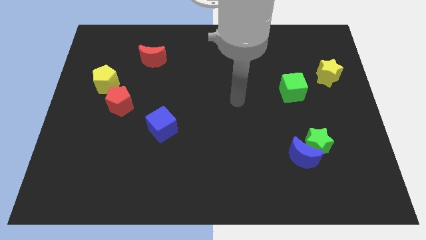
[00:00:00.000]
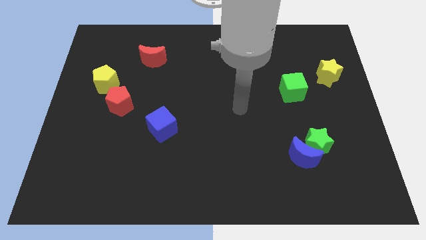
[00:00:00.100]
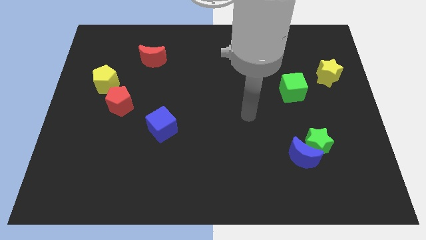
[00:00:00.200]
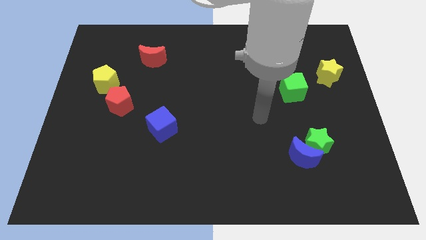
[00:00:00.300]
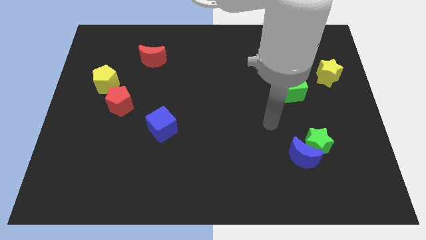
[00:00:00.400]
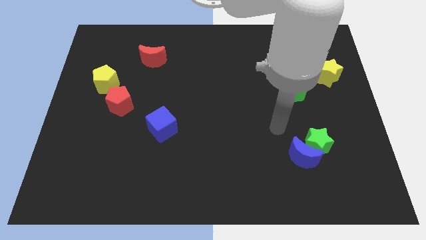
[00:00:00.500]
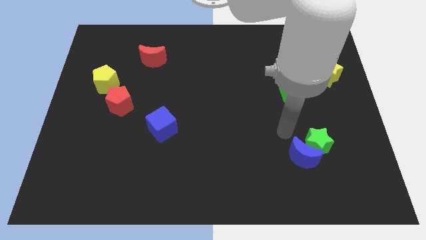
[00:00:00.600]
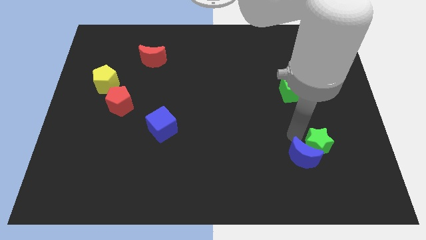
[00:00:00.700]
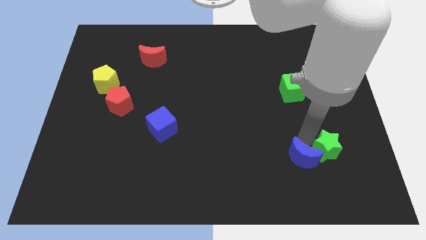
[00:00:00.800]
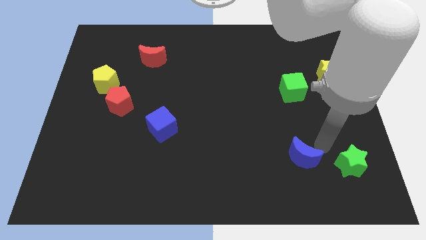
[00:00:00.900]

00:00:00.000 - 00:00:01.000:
pull the blue moon apart from the green star

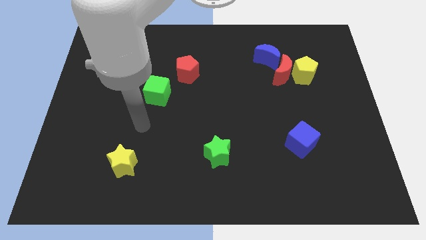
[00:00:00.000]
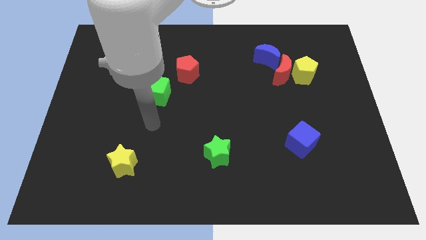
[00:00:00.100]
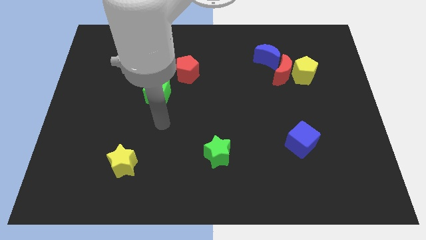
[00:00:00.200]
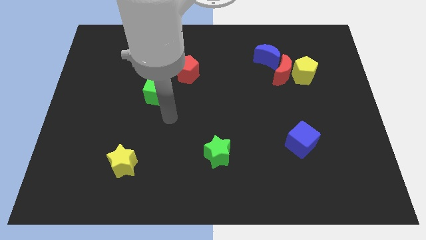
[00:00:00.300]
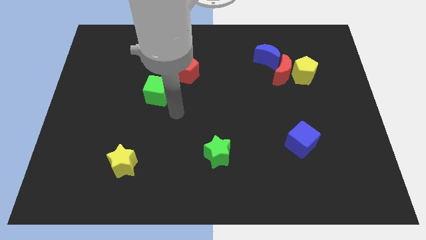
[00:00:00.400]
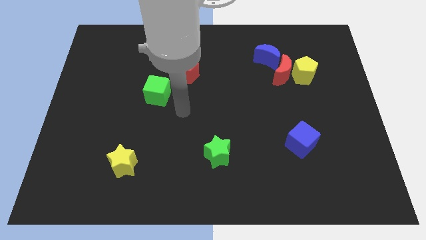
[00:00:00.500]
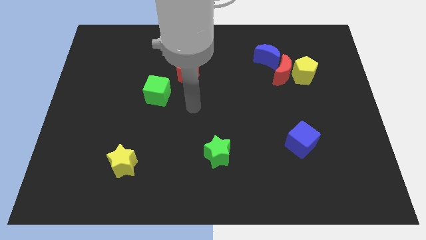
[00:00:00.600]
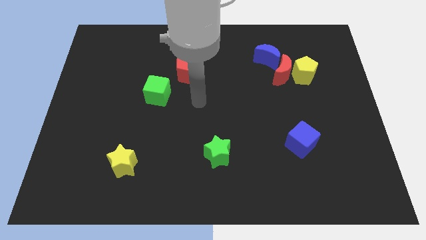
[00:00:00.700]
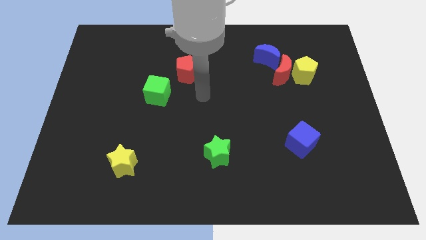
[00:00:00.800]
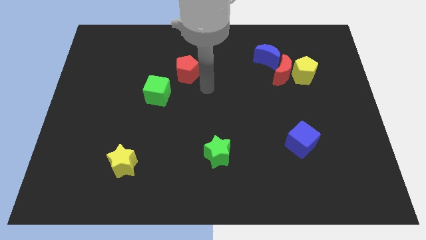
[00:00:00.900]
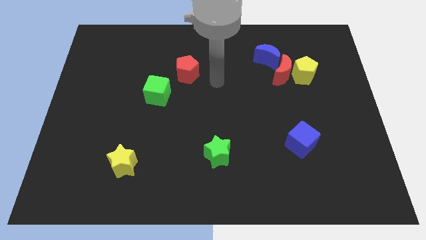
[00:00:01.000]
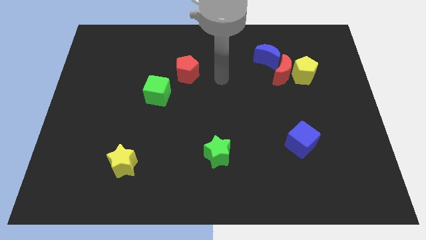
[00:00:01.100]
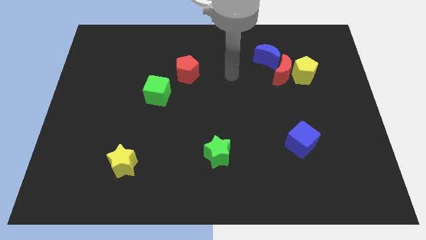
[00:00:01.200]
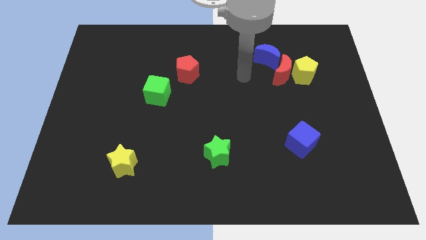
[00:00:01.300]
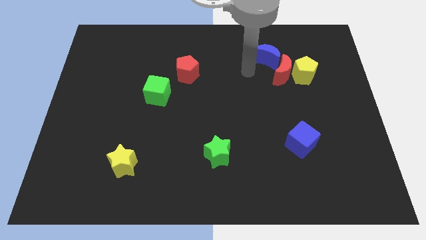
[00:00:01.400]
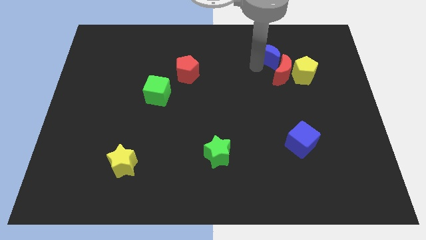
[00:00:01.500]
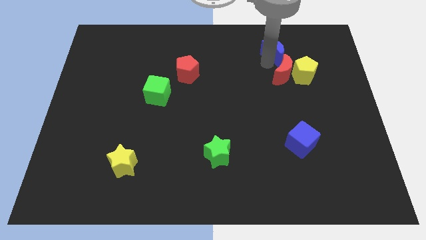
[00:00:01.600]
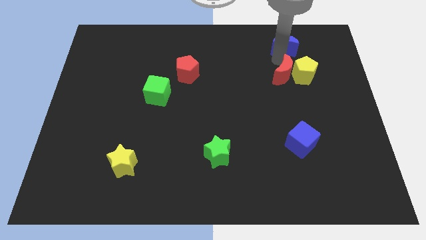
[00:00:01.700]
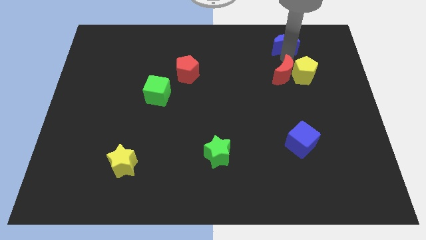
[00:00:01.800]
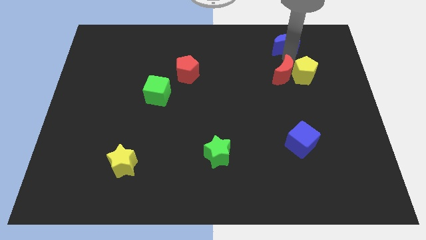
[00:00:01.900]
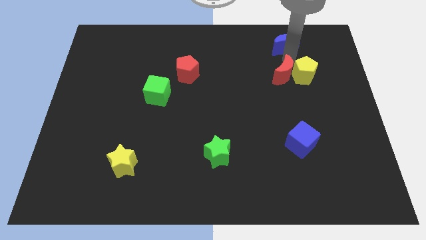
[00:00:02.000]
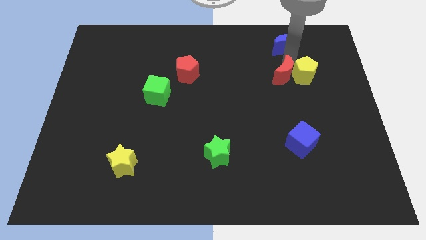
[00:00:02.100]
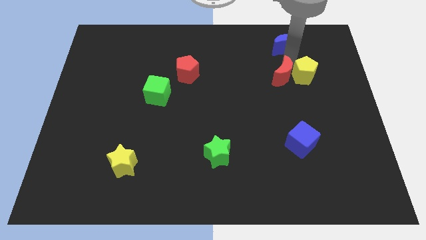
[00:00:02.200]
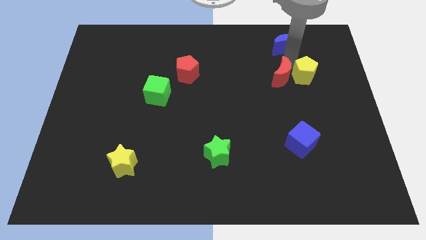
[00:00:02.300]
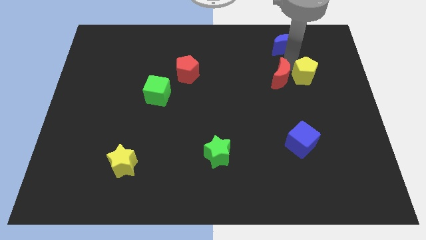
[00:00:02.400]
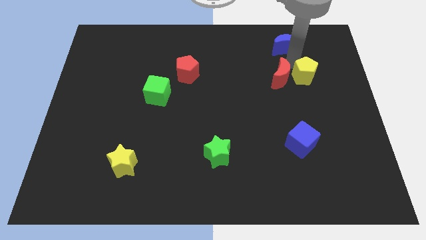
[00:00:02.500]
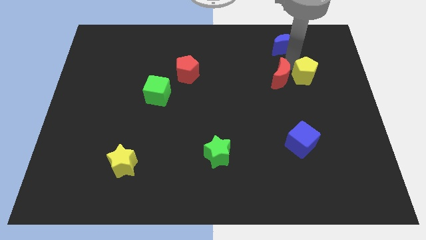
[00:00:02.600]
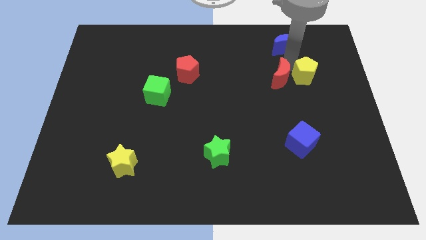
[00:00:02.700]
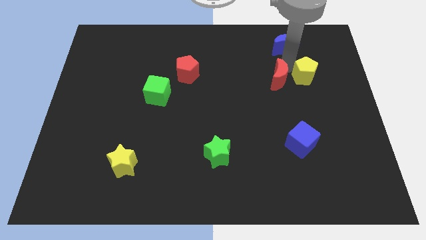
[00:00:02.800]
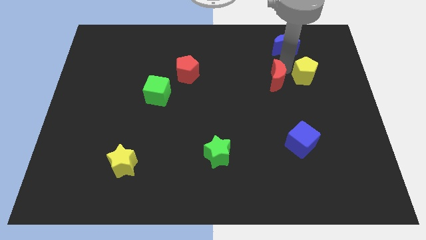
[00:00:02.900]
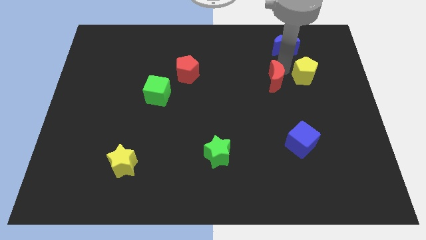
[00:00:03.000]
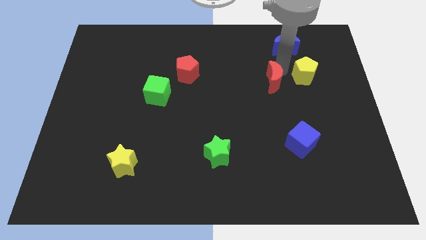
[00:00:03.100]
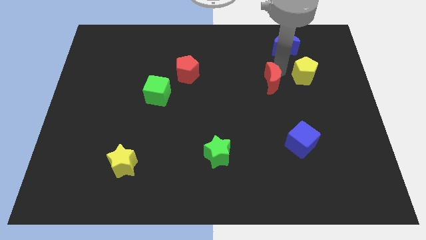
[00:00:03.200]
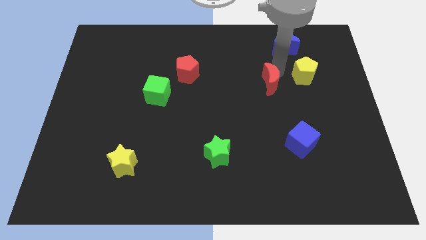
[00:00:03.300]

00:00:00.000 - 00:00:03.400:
separate the red moon from the yellow pentagon and blue moon

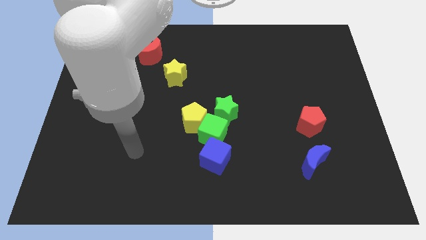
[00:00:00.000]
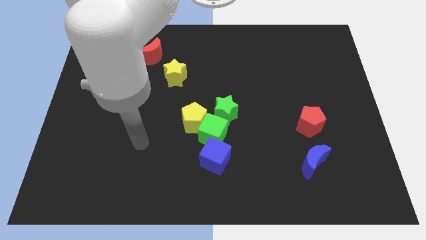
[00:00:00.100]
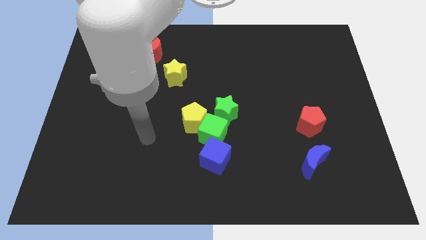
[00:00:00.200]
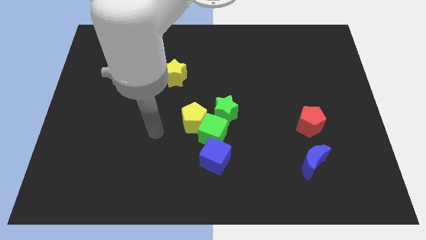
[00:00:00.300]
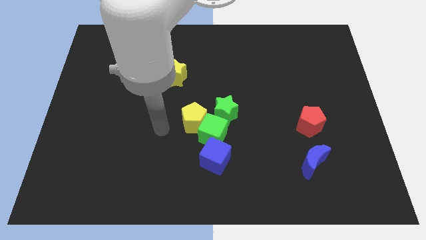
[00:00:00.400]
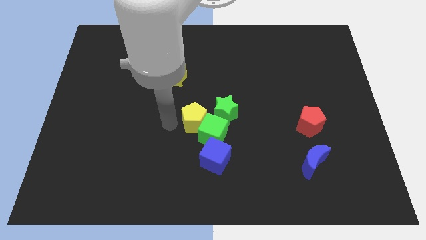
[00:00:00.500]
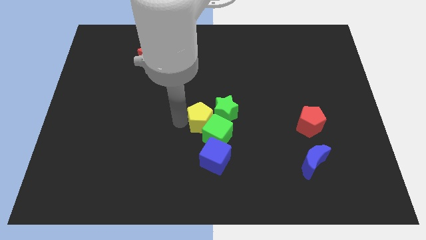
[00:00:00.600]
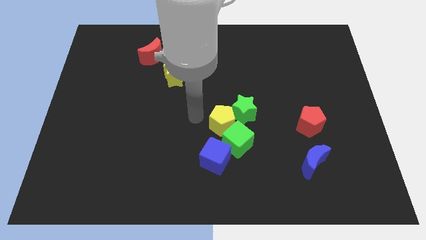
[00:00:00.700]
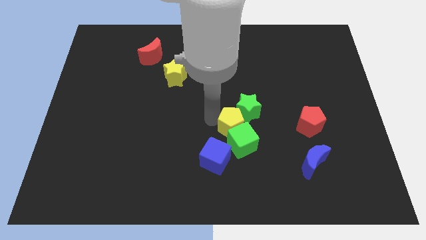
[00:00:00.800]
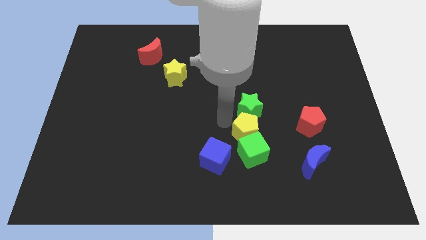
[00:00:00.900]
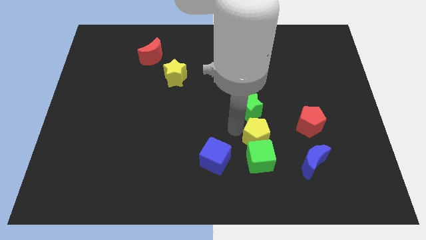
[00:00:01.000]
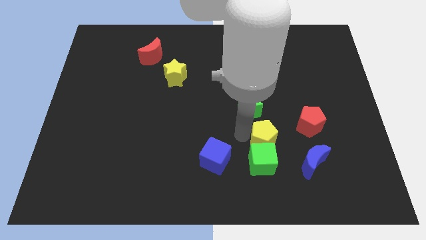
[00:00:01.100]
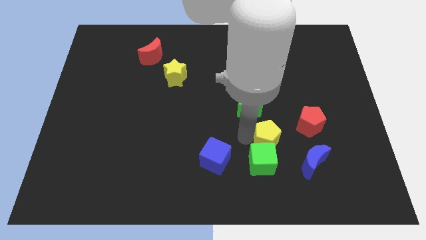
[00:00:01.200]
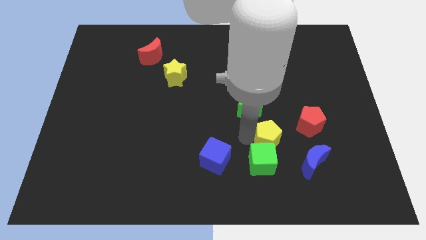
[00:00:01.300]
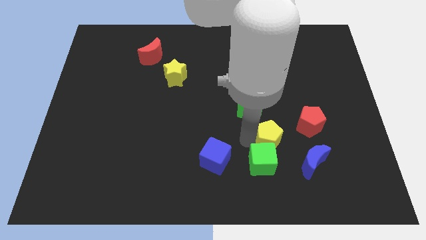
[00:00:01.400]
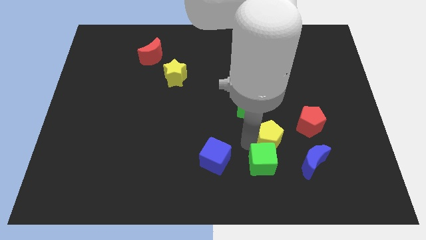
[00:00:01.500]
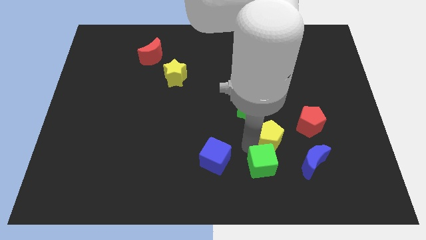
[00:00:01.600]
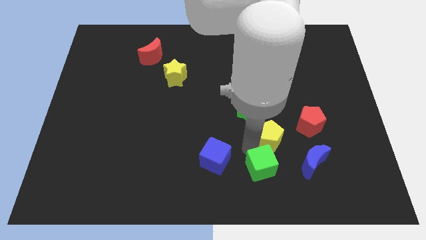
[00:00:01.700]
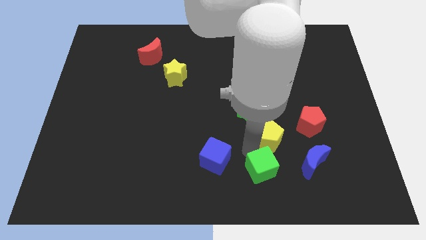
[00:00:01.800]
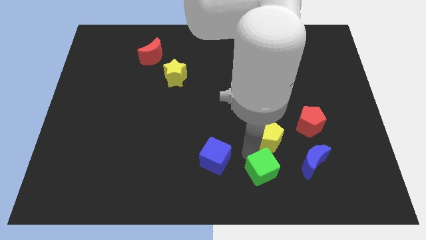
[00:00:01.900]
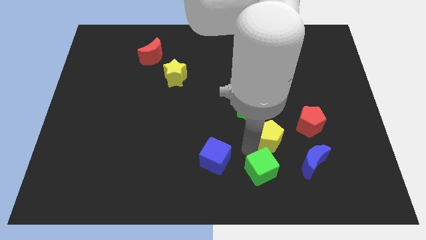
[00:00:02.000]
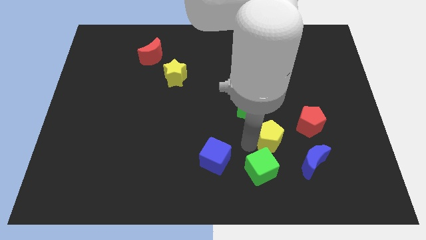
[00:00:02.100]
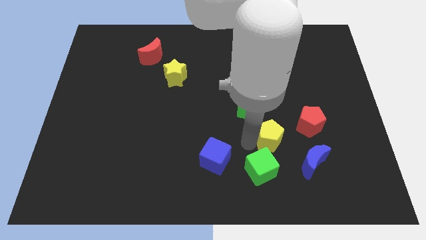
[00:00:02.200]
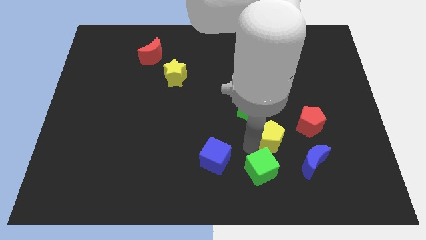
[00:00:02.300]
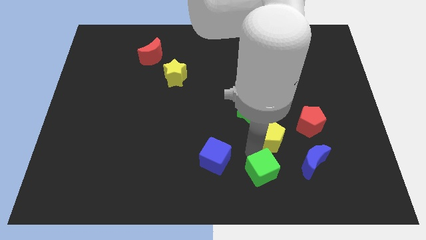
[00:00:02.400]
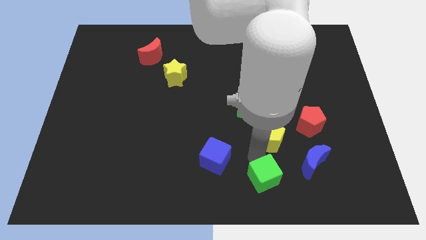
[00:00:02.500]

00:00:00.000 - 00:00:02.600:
separate the green cube from the group of blocks

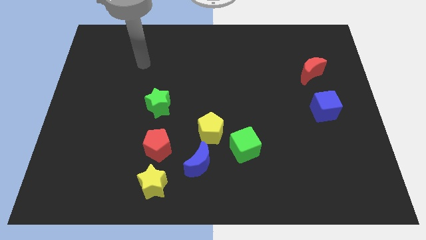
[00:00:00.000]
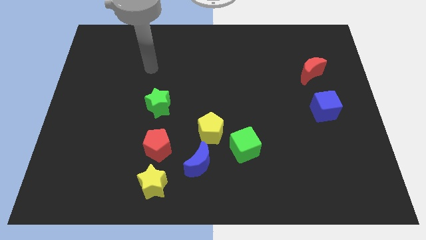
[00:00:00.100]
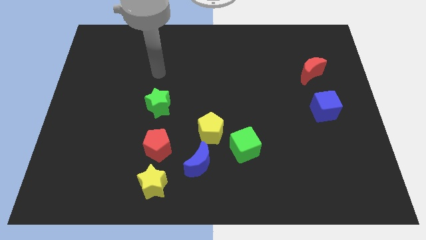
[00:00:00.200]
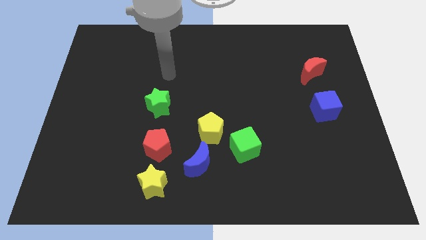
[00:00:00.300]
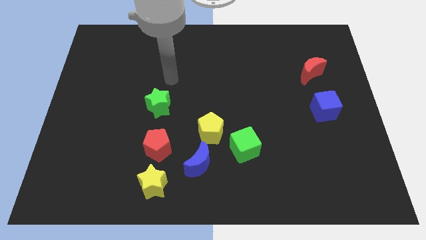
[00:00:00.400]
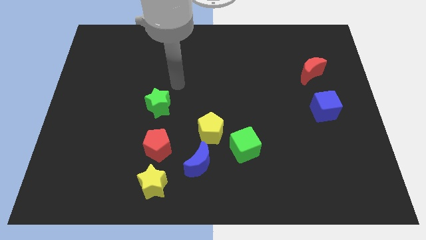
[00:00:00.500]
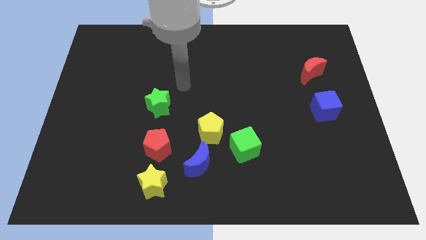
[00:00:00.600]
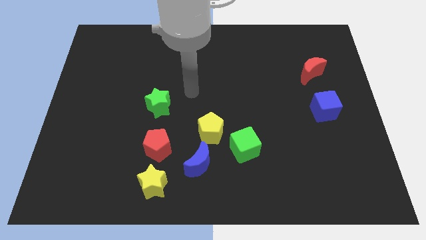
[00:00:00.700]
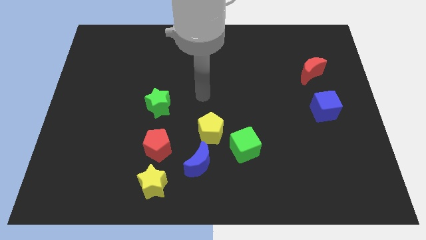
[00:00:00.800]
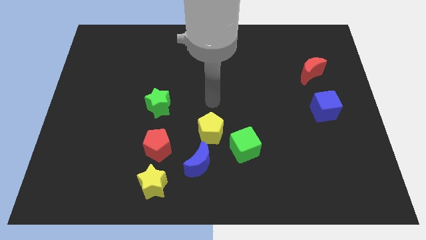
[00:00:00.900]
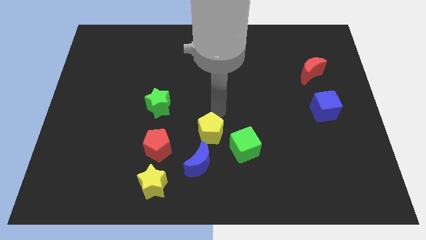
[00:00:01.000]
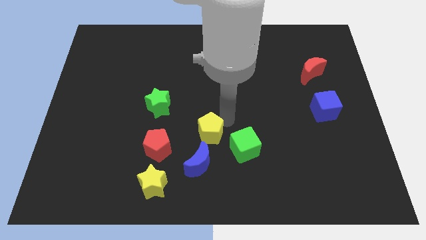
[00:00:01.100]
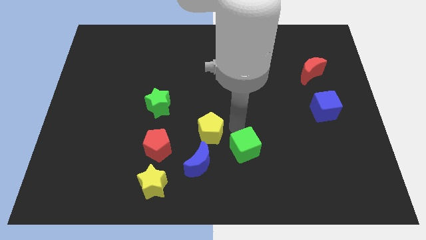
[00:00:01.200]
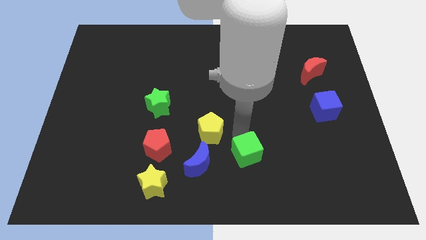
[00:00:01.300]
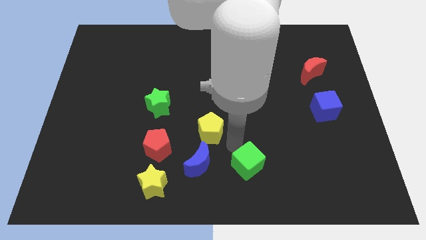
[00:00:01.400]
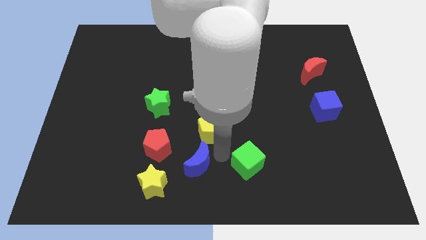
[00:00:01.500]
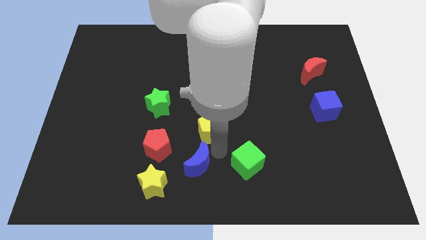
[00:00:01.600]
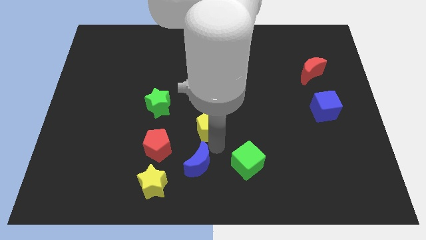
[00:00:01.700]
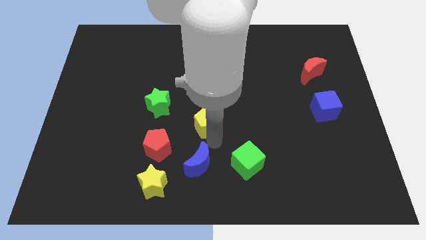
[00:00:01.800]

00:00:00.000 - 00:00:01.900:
pull the yellow pentagon apart from the blue moon and green cube

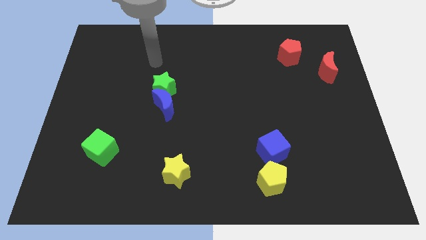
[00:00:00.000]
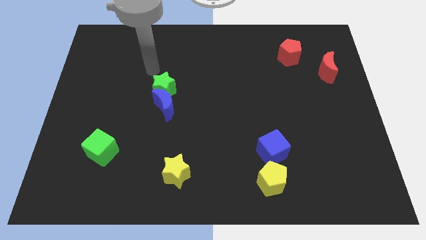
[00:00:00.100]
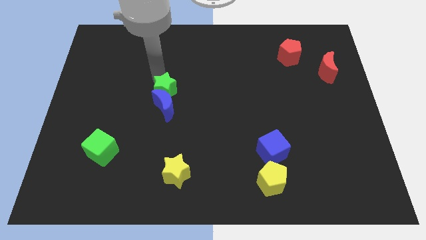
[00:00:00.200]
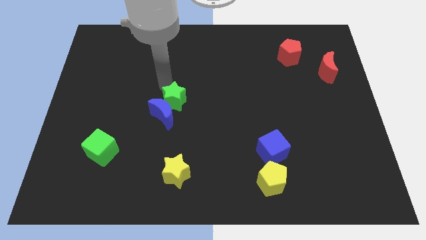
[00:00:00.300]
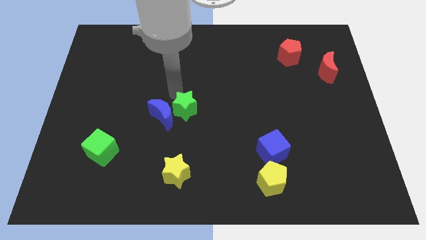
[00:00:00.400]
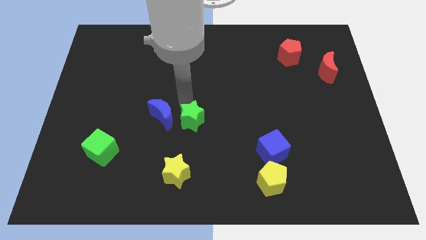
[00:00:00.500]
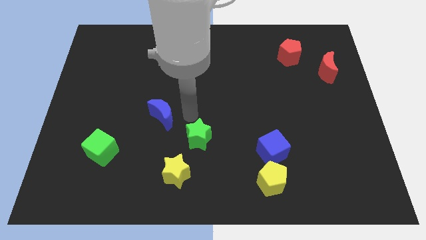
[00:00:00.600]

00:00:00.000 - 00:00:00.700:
separate the blue moon from the green star
